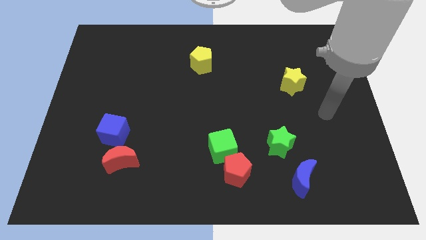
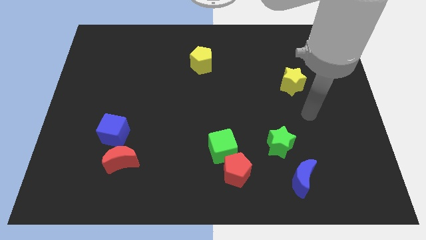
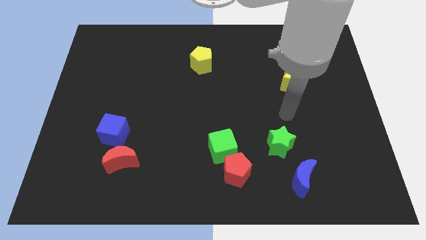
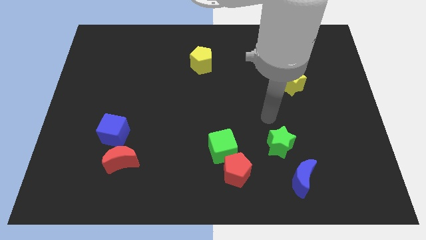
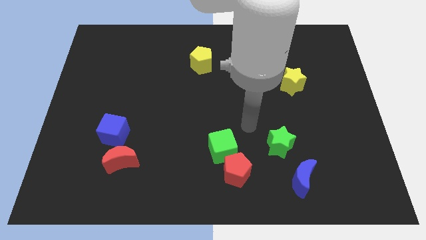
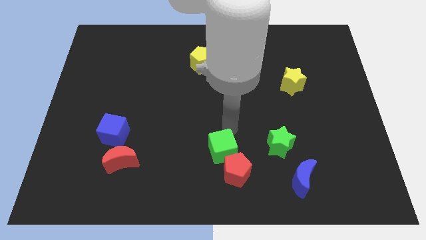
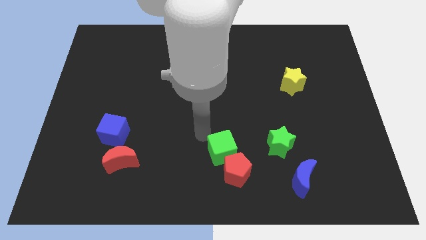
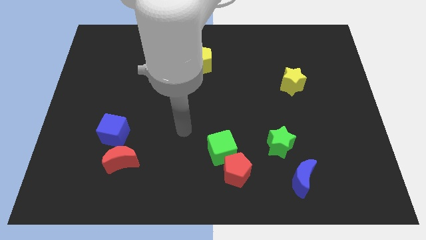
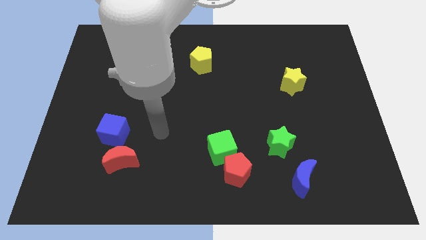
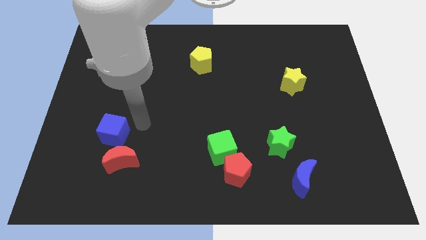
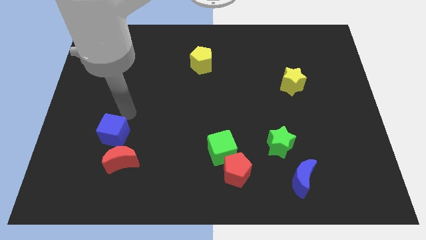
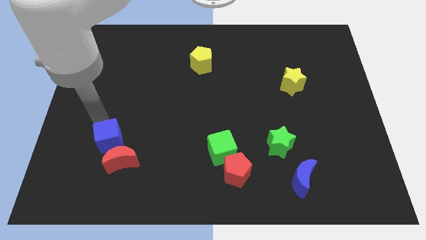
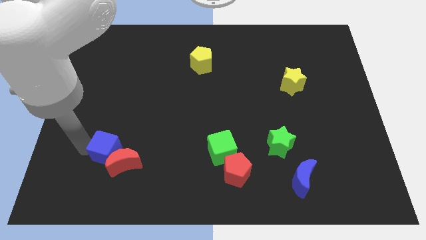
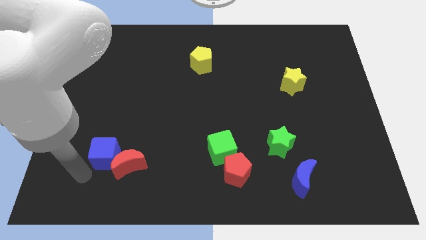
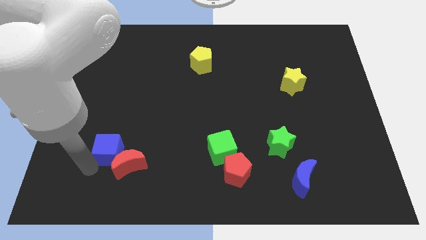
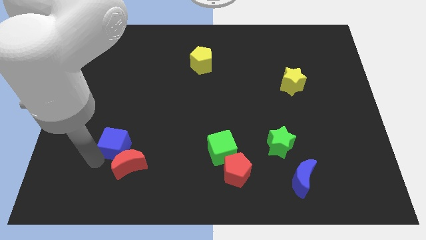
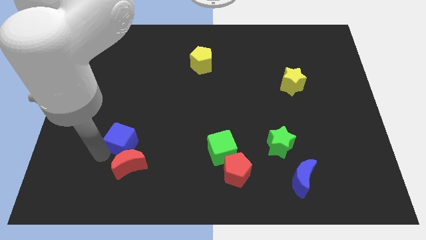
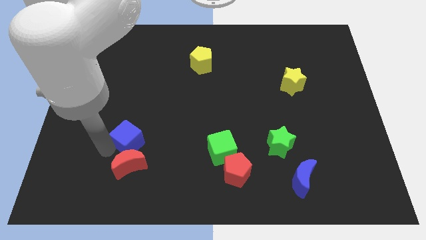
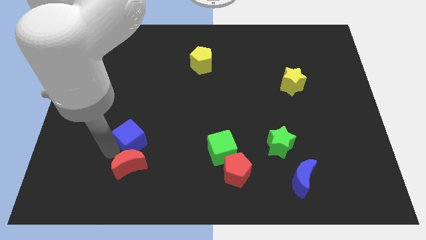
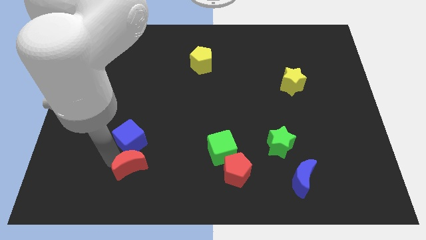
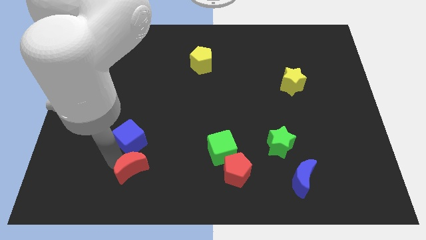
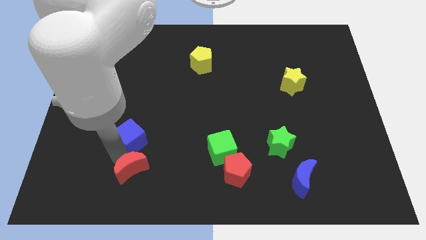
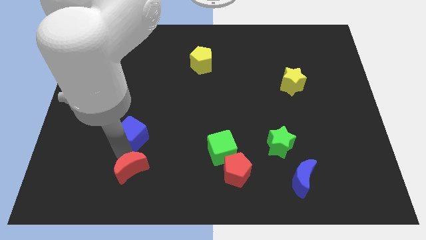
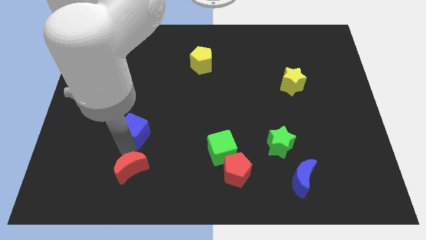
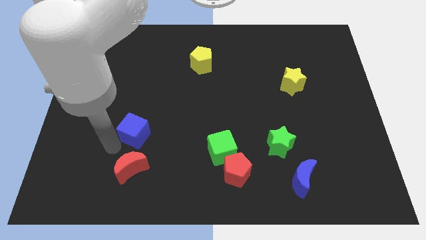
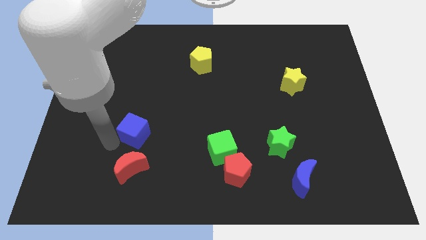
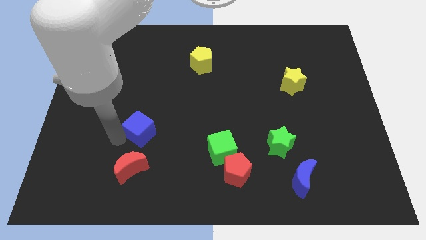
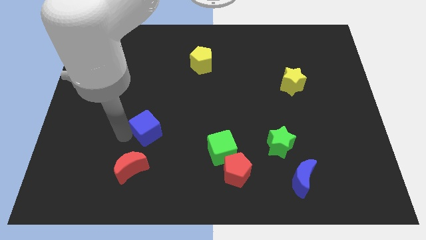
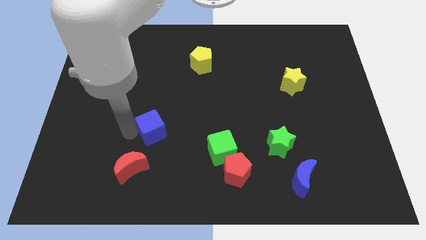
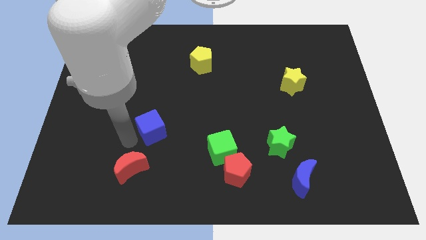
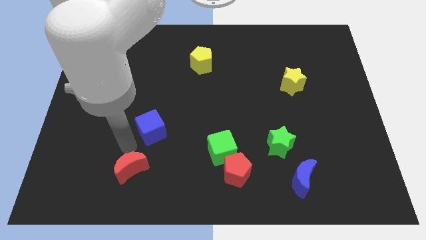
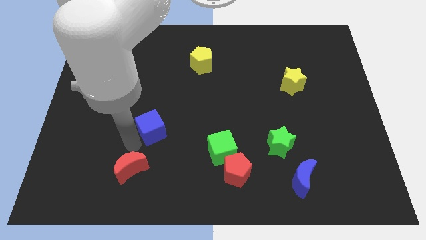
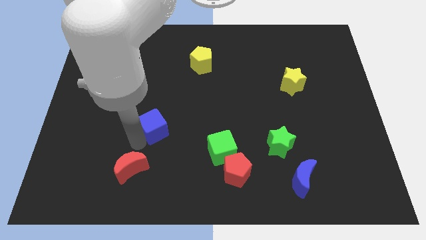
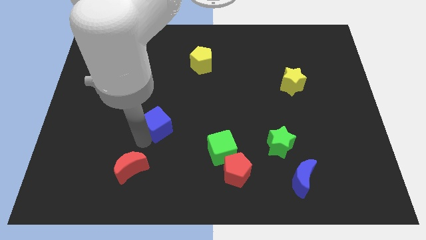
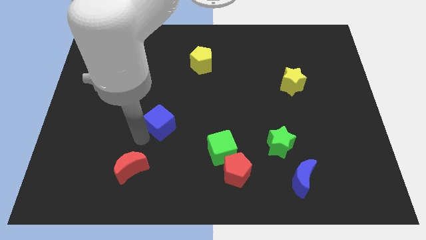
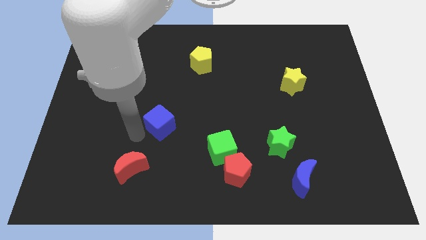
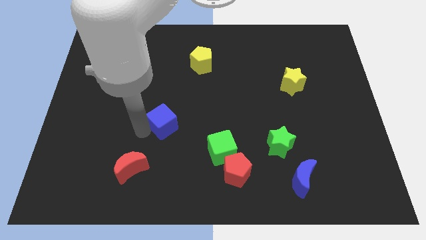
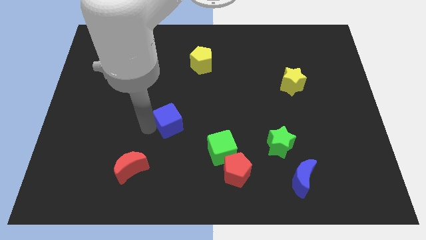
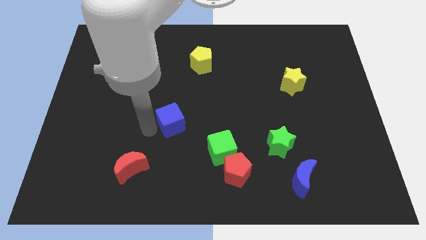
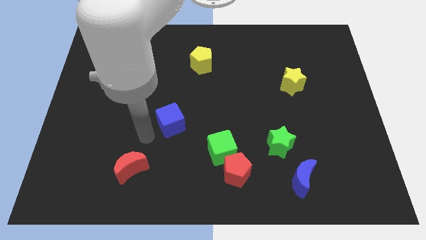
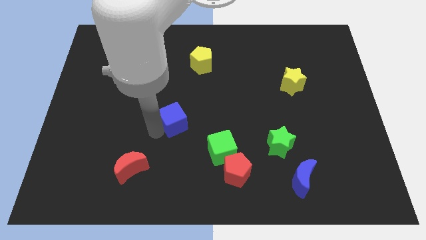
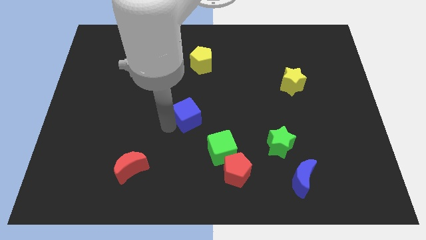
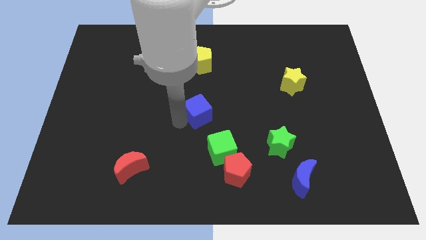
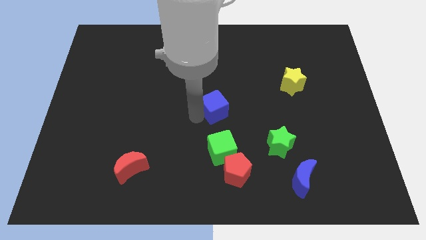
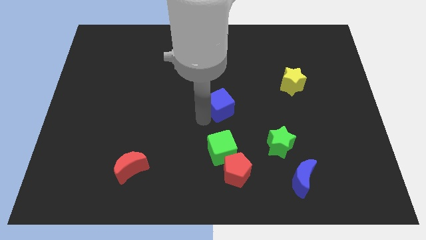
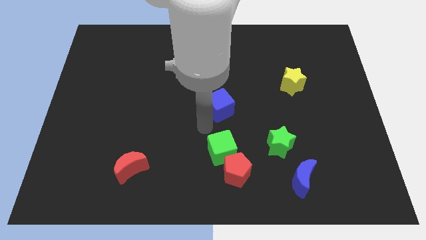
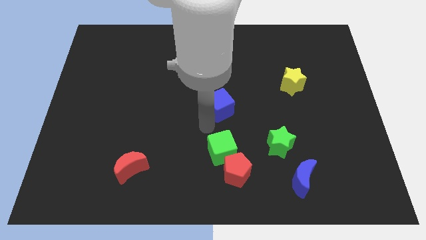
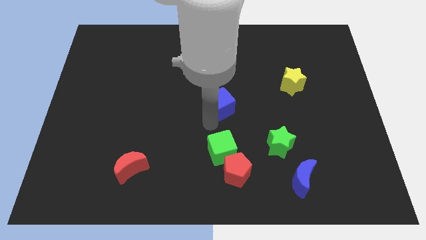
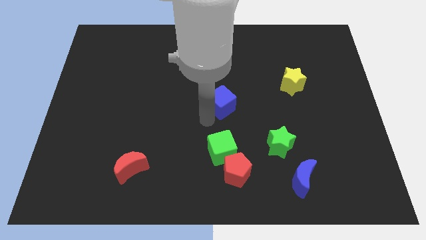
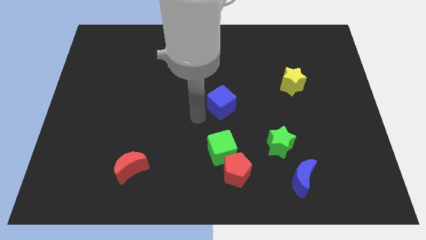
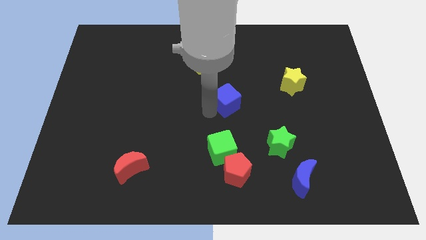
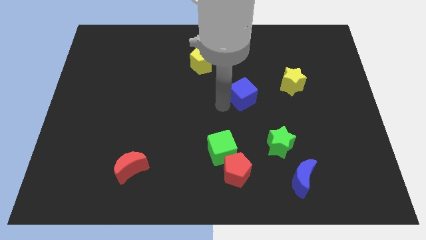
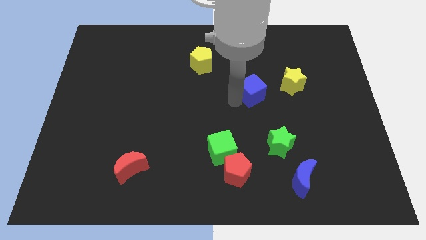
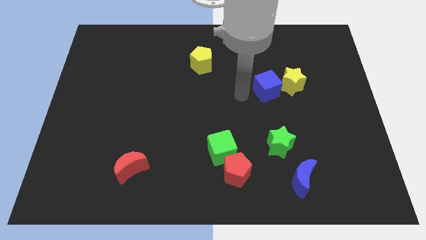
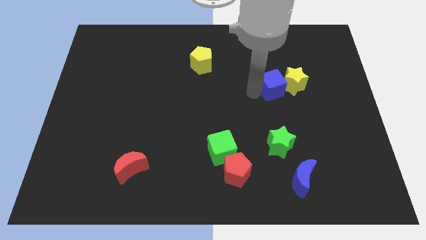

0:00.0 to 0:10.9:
push the blue cube close to the yellow star

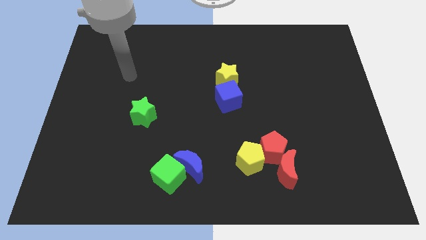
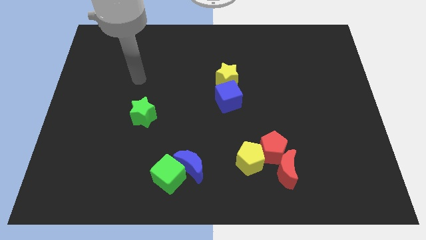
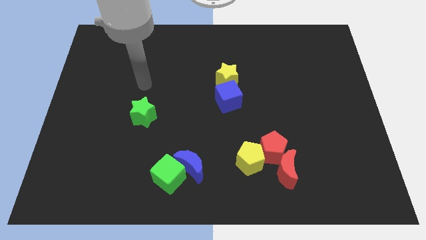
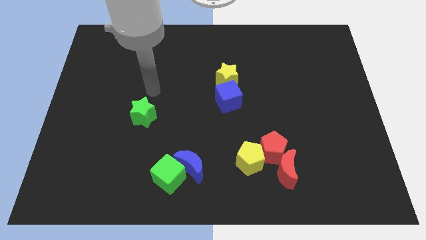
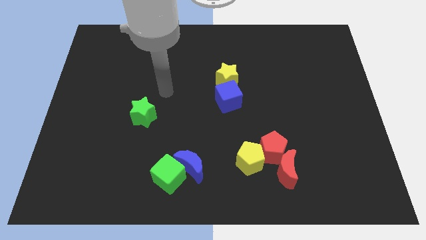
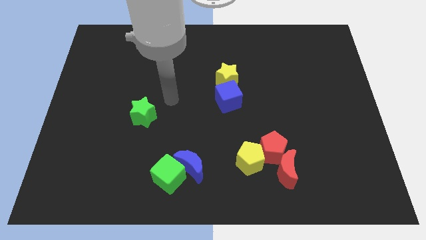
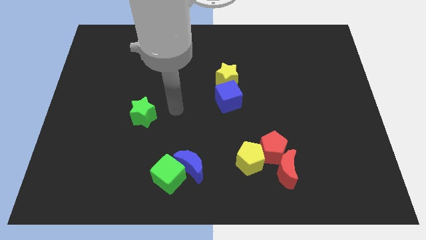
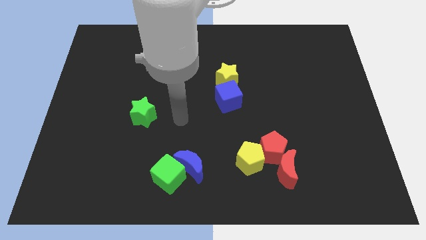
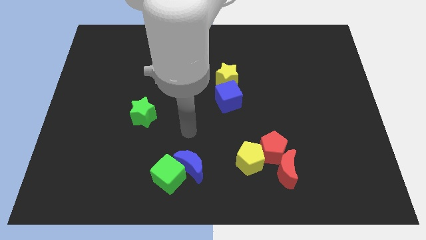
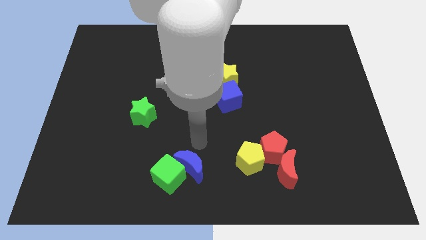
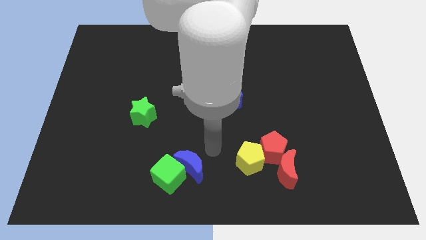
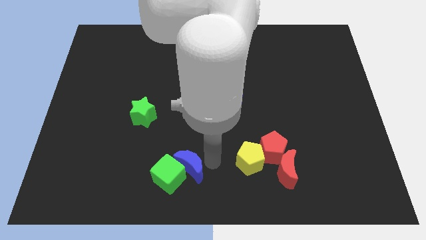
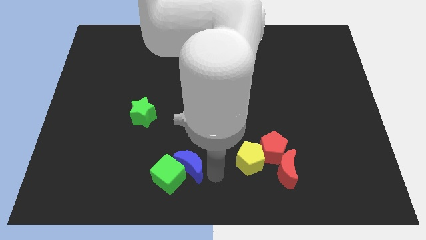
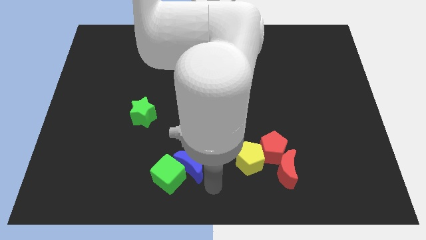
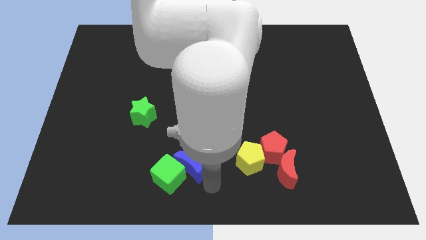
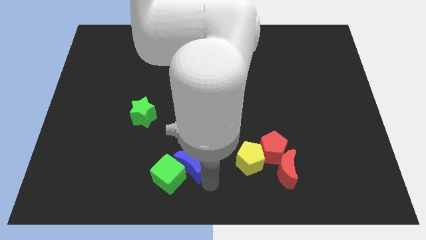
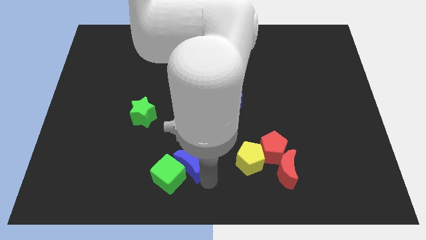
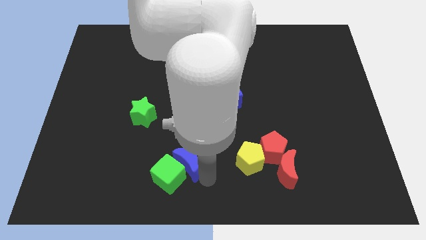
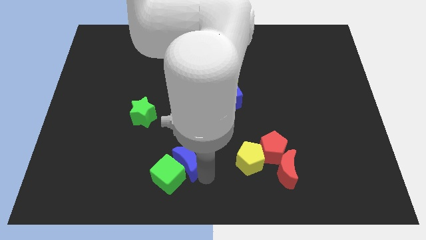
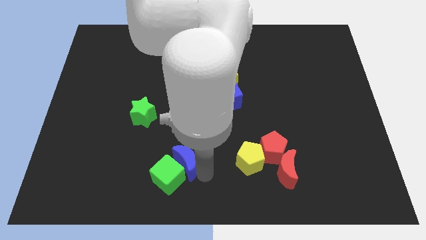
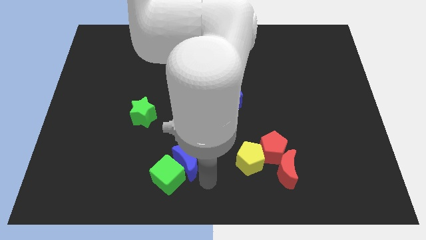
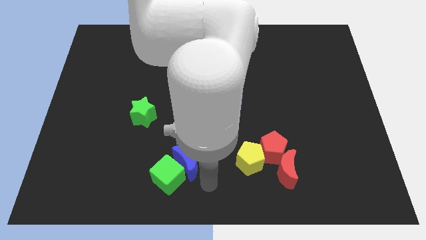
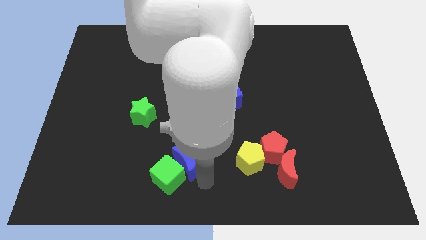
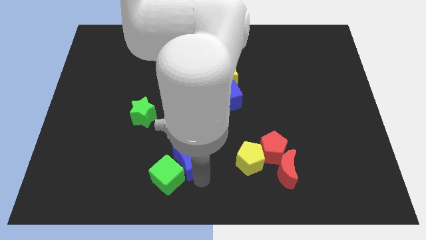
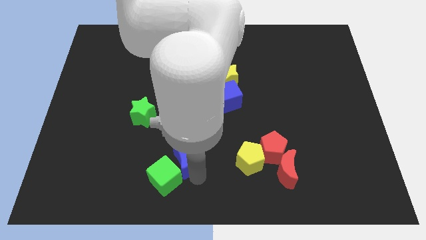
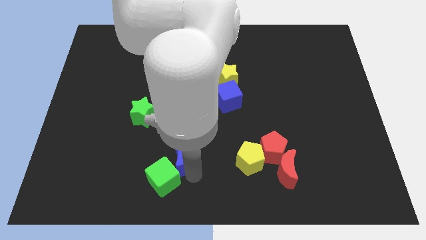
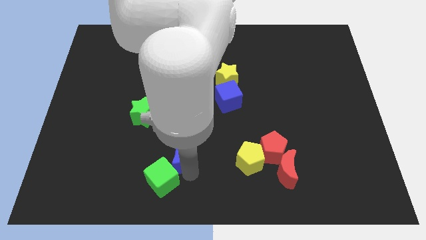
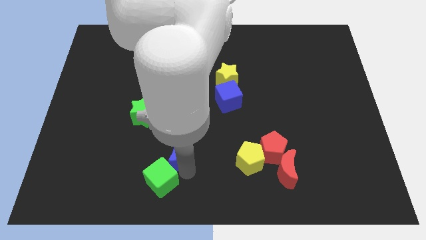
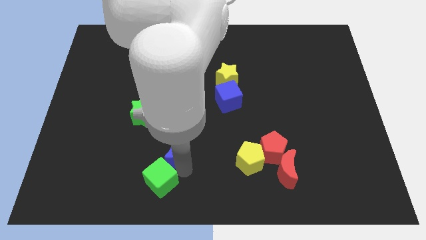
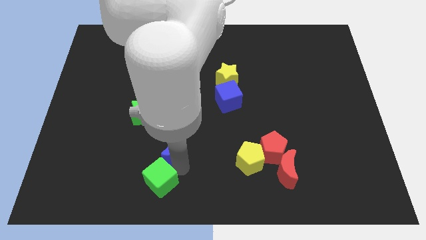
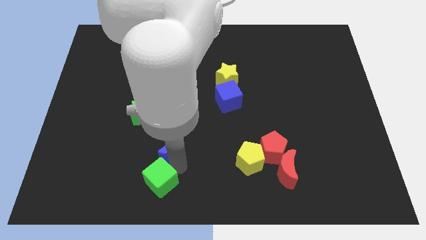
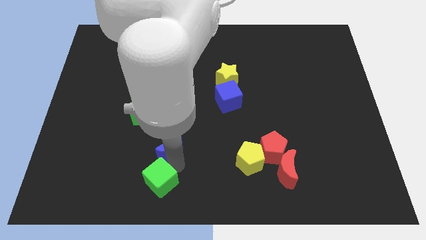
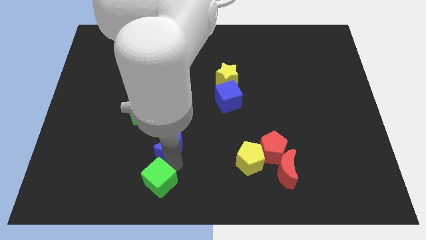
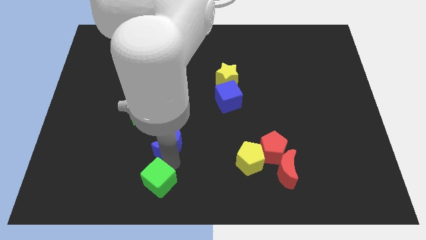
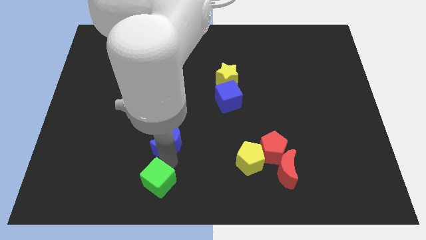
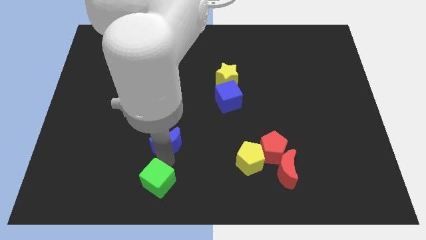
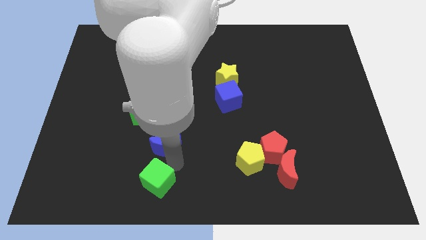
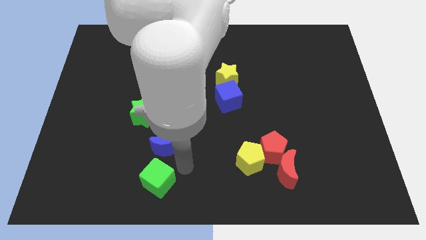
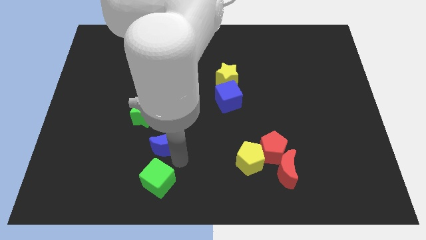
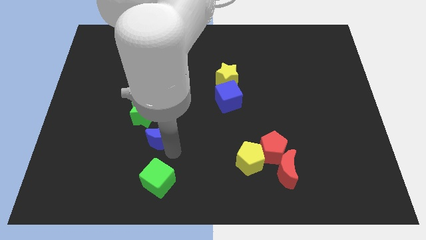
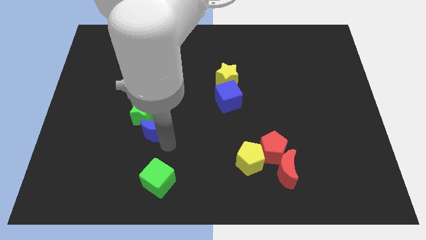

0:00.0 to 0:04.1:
move the blue moon next to the green star
